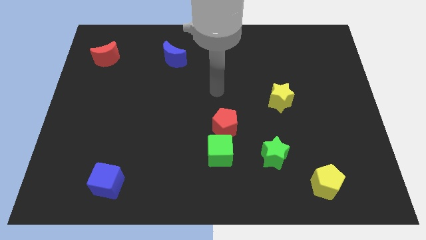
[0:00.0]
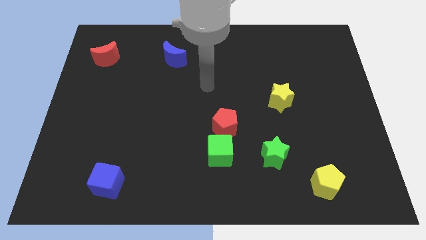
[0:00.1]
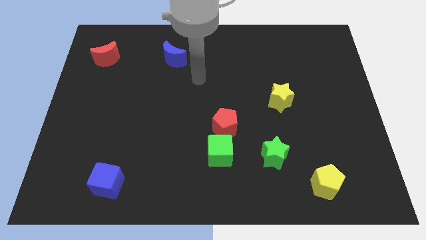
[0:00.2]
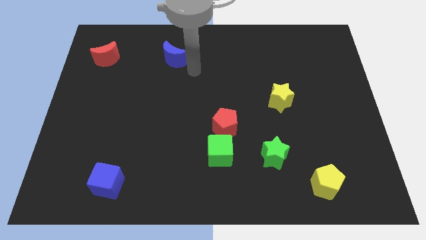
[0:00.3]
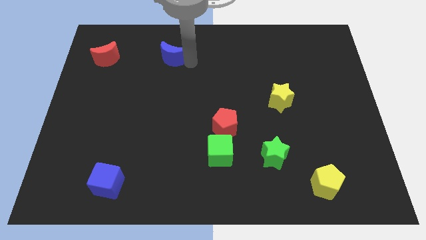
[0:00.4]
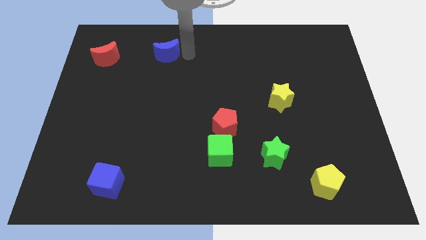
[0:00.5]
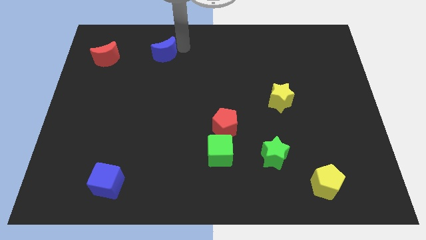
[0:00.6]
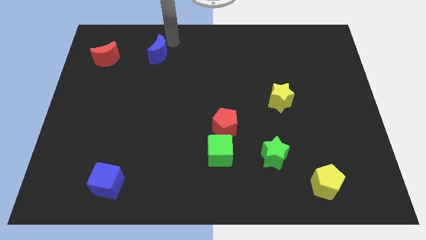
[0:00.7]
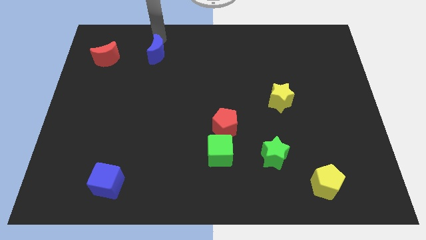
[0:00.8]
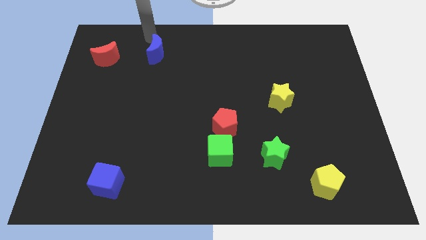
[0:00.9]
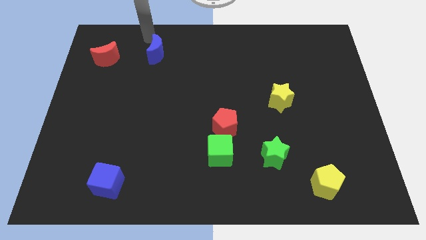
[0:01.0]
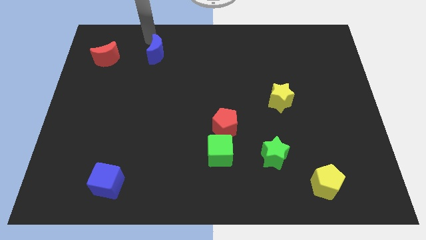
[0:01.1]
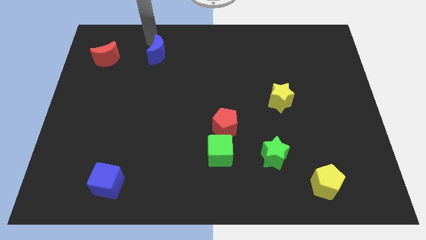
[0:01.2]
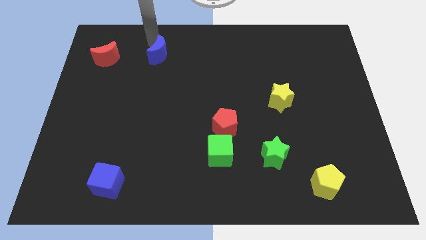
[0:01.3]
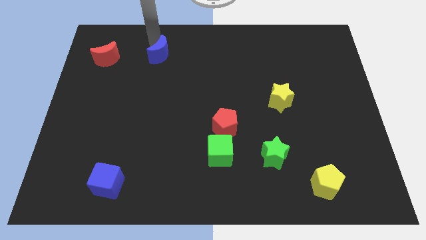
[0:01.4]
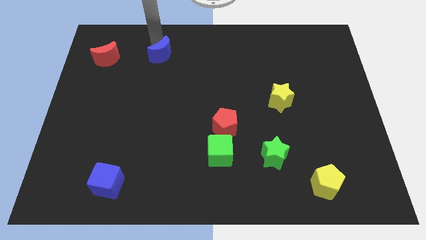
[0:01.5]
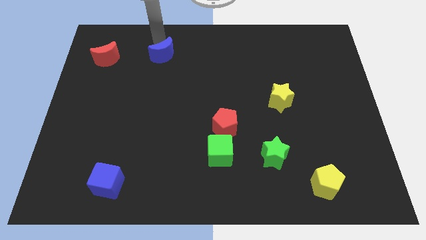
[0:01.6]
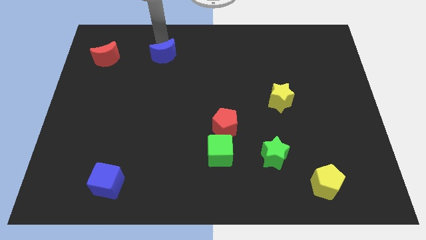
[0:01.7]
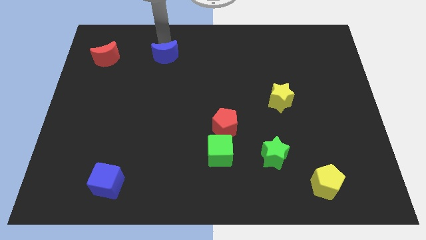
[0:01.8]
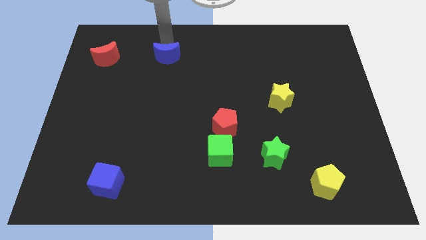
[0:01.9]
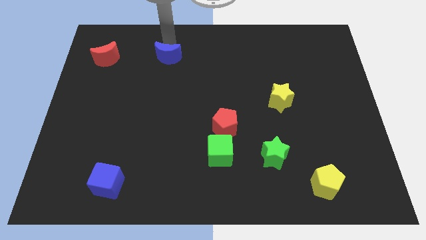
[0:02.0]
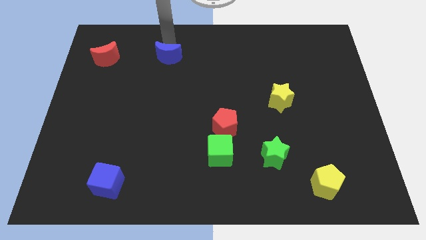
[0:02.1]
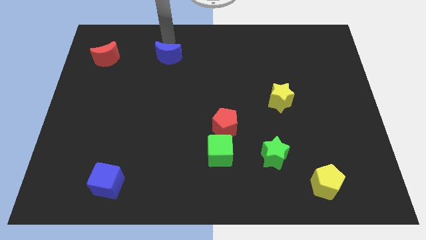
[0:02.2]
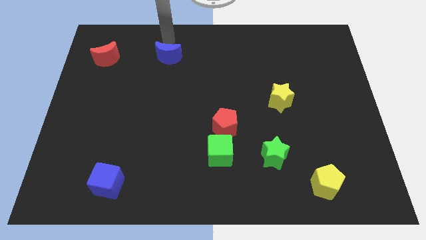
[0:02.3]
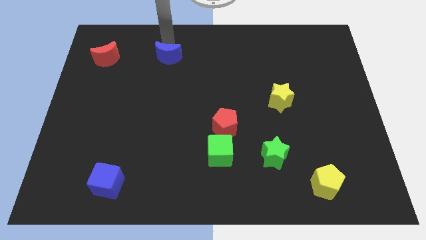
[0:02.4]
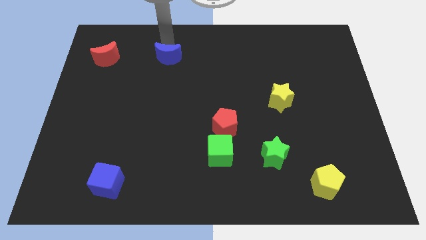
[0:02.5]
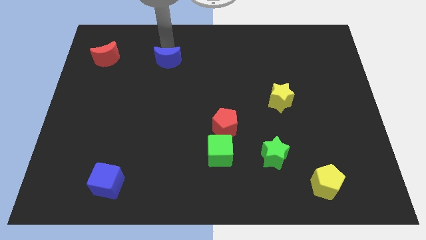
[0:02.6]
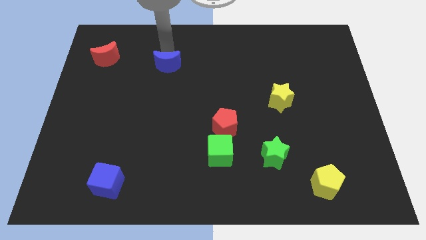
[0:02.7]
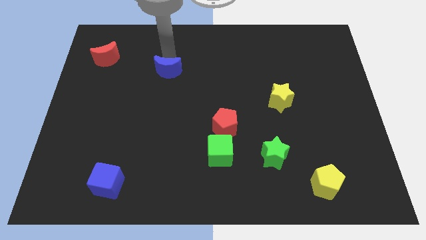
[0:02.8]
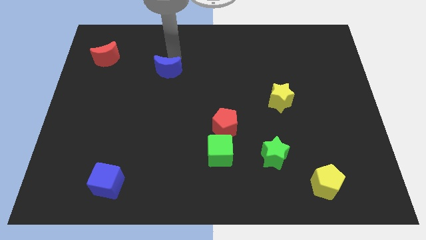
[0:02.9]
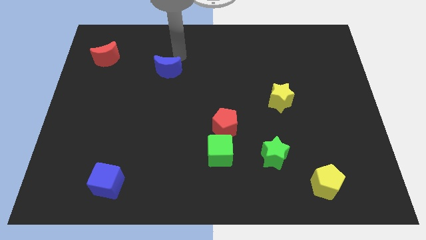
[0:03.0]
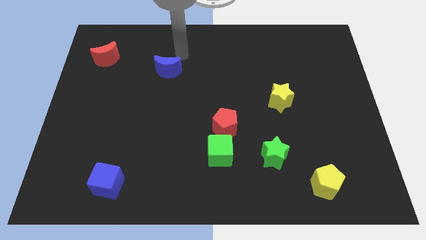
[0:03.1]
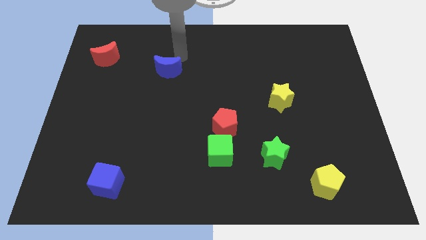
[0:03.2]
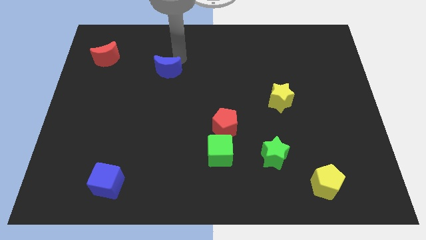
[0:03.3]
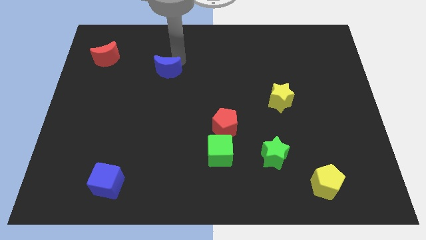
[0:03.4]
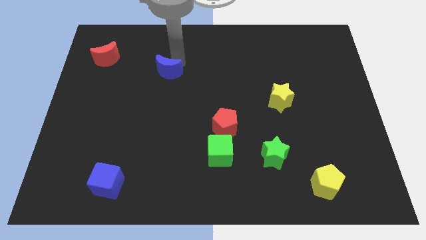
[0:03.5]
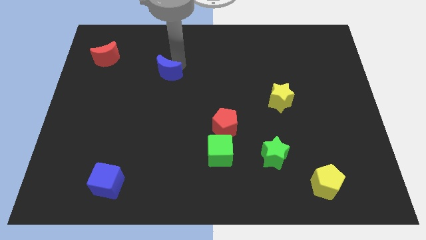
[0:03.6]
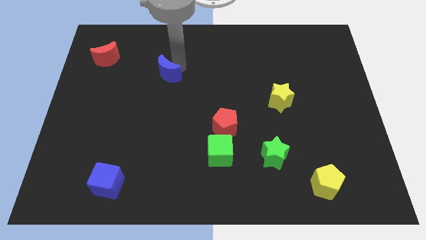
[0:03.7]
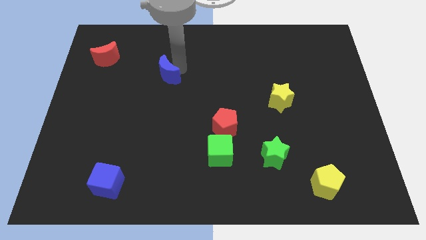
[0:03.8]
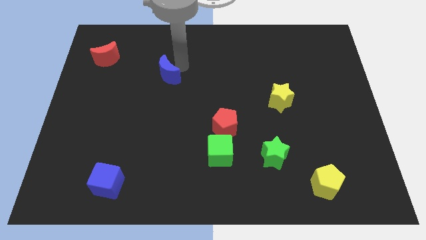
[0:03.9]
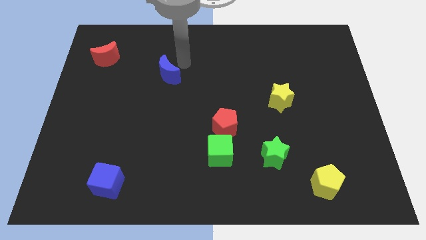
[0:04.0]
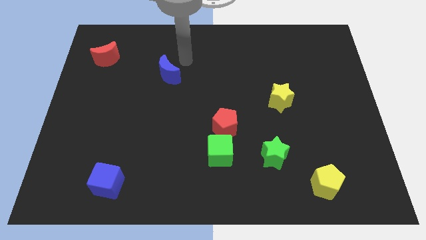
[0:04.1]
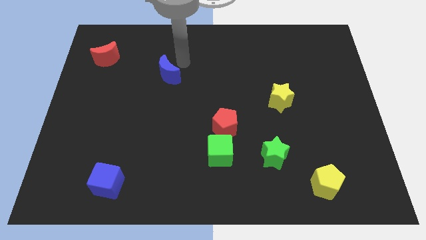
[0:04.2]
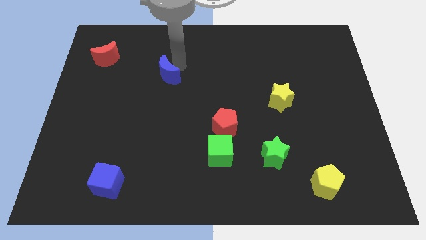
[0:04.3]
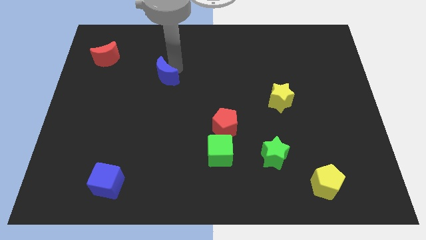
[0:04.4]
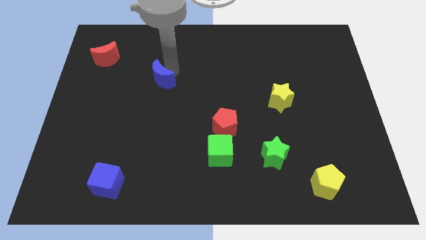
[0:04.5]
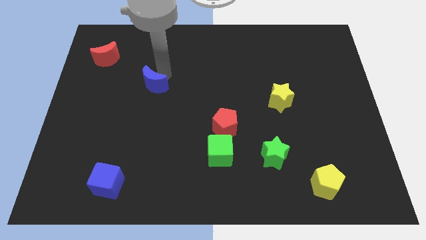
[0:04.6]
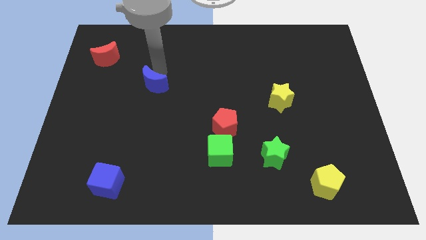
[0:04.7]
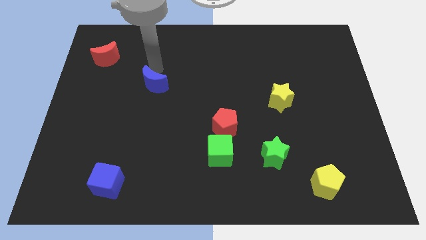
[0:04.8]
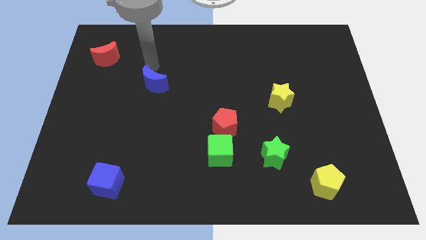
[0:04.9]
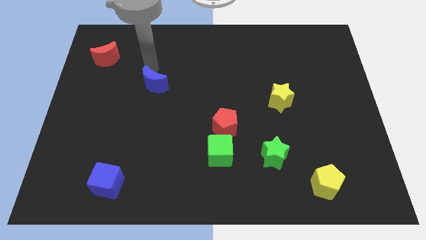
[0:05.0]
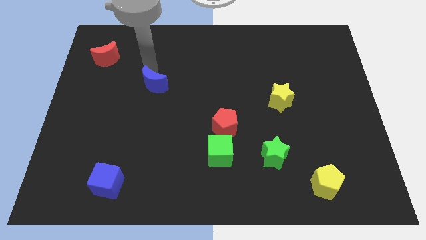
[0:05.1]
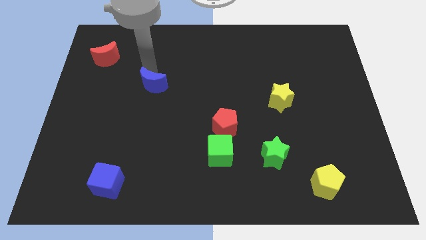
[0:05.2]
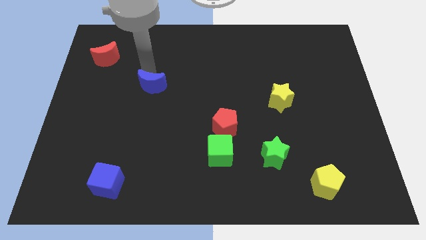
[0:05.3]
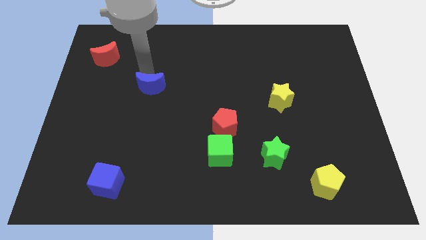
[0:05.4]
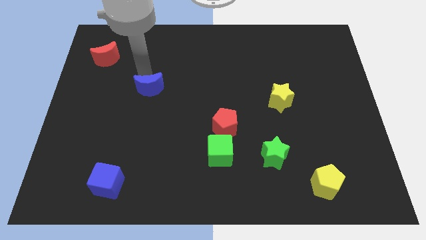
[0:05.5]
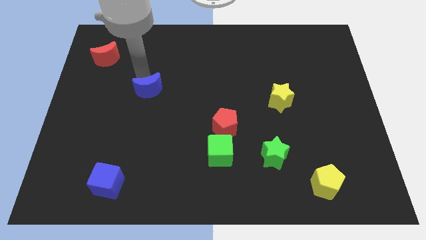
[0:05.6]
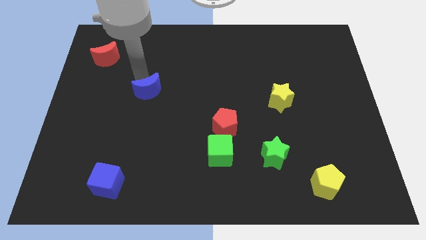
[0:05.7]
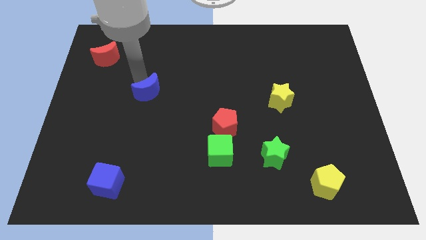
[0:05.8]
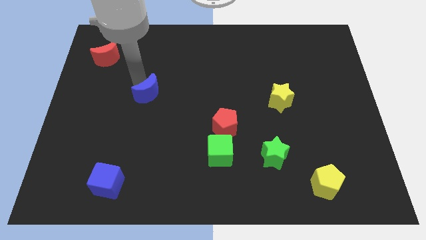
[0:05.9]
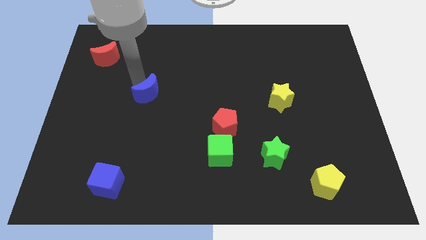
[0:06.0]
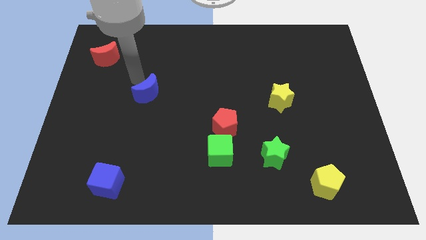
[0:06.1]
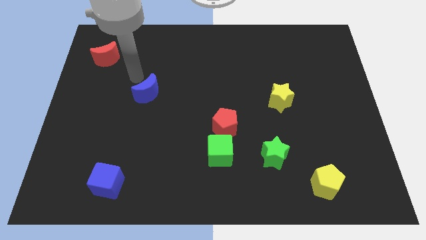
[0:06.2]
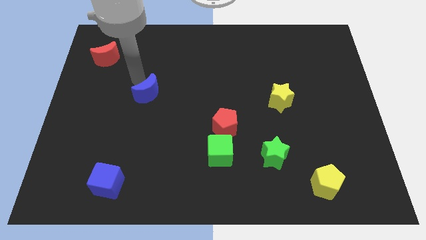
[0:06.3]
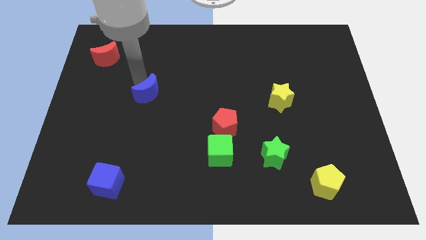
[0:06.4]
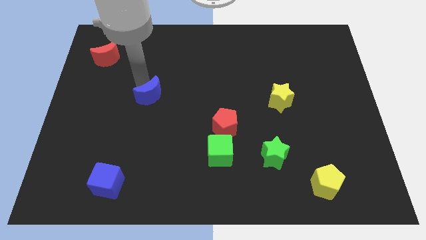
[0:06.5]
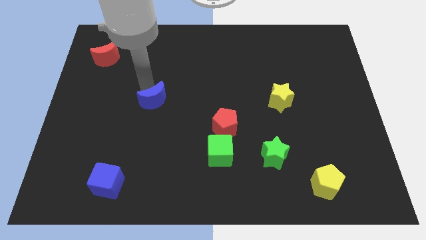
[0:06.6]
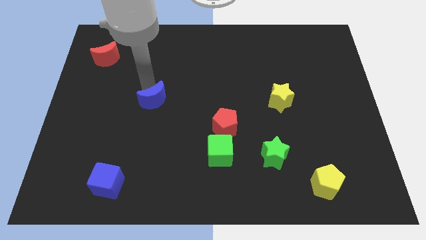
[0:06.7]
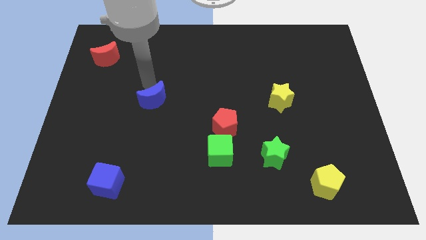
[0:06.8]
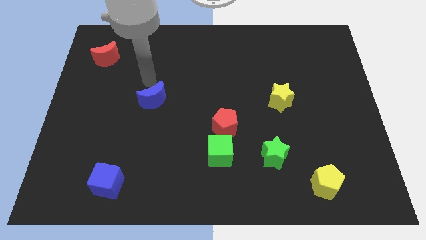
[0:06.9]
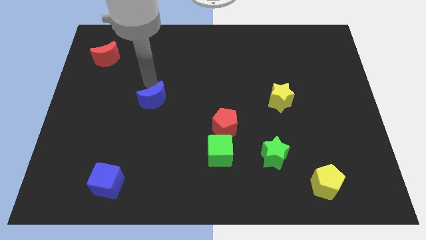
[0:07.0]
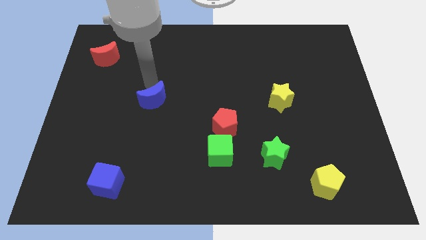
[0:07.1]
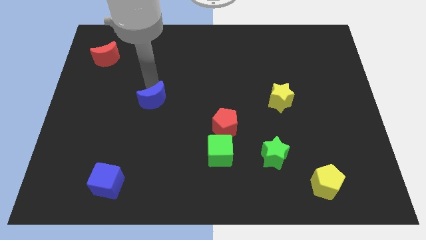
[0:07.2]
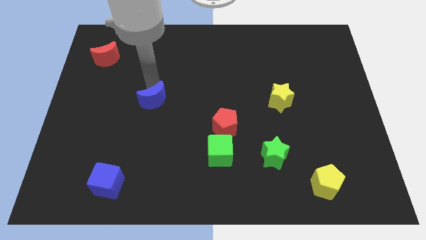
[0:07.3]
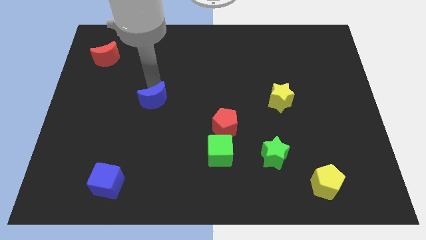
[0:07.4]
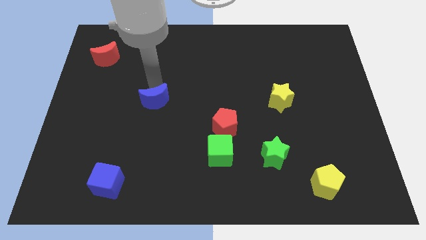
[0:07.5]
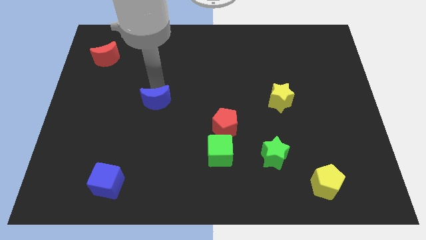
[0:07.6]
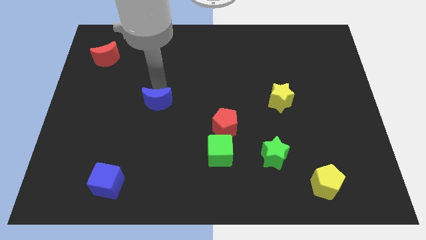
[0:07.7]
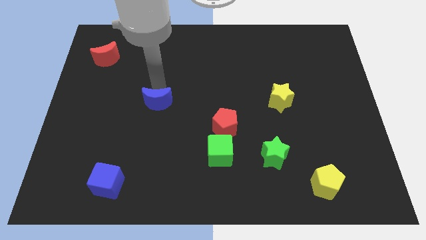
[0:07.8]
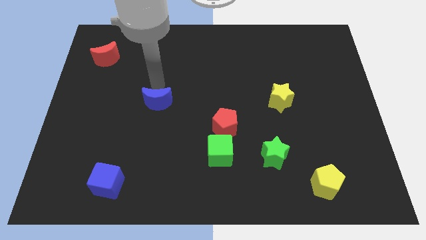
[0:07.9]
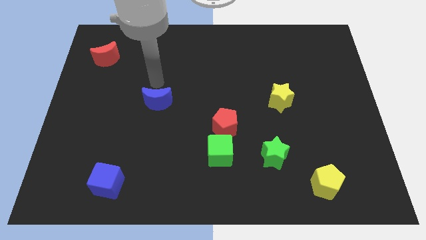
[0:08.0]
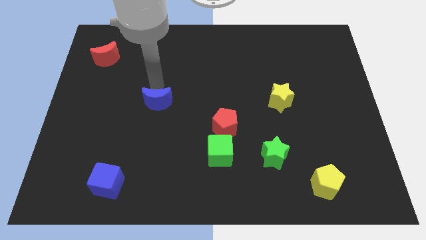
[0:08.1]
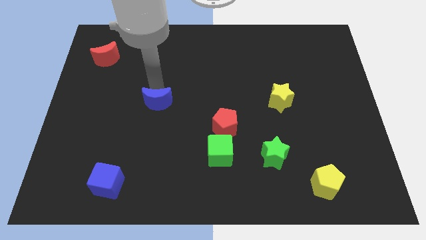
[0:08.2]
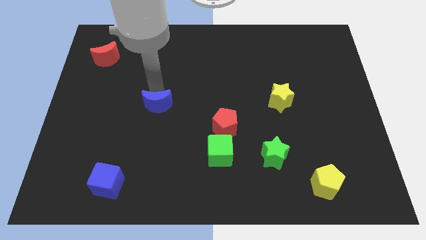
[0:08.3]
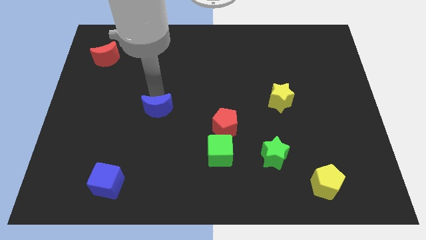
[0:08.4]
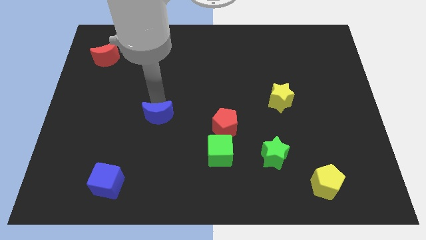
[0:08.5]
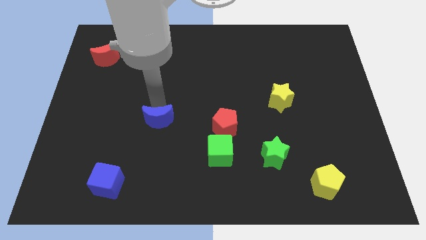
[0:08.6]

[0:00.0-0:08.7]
move the blue moon downwards
